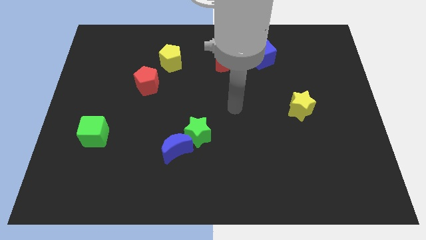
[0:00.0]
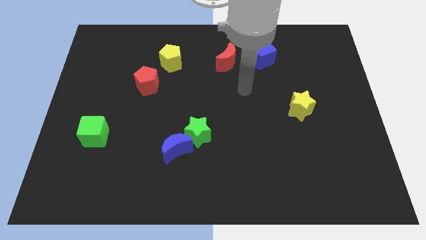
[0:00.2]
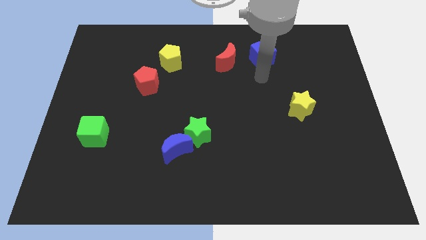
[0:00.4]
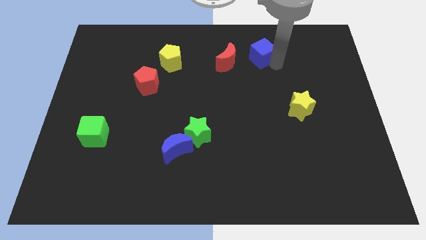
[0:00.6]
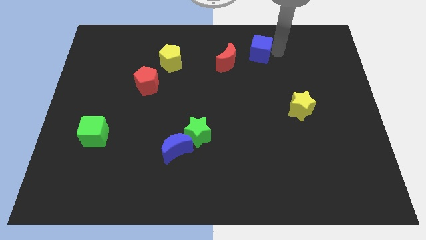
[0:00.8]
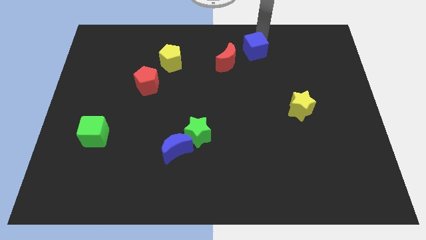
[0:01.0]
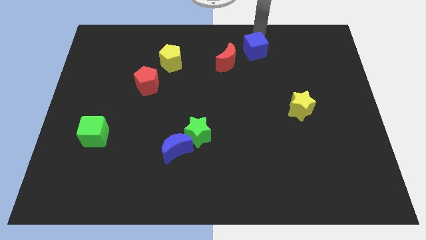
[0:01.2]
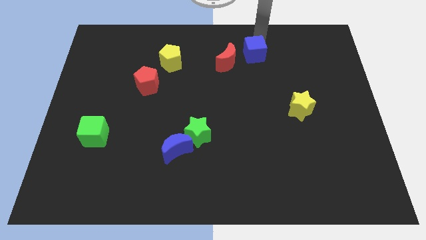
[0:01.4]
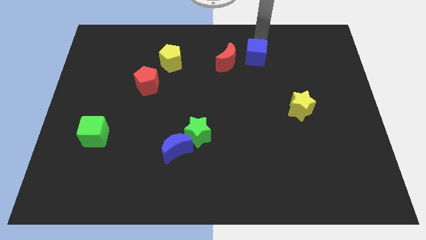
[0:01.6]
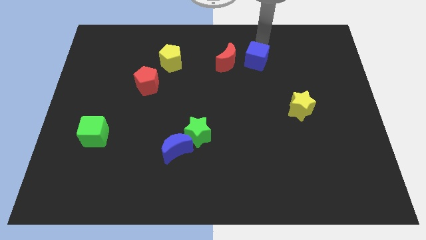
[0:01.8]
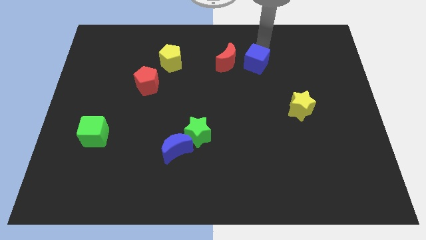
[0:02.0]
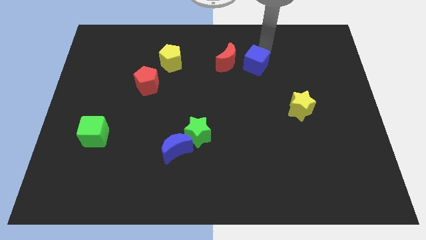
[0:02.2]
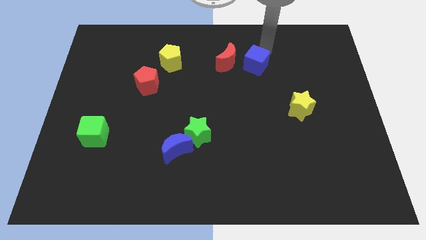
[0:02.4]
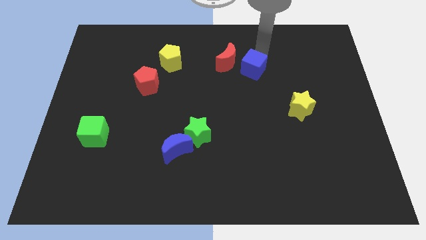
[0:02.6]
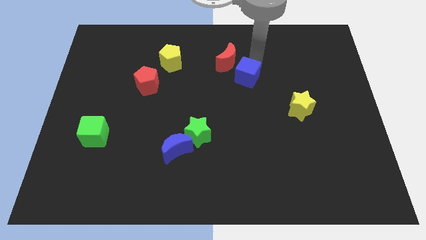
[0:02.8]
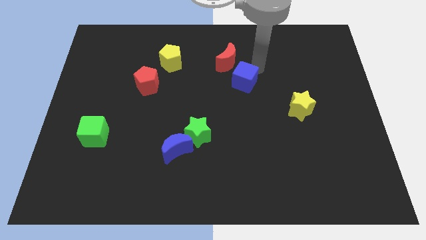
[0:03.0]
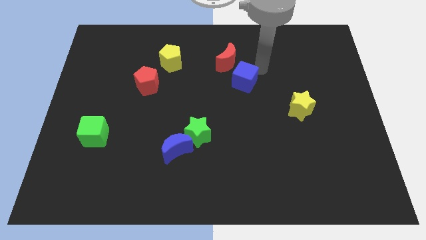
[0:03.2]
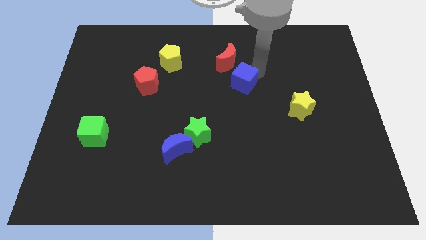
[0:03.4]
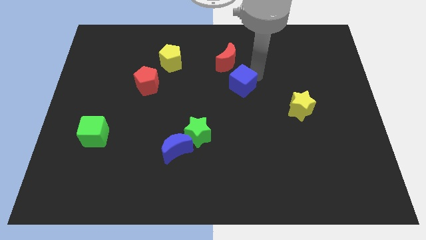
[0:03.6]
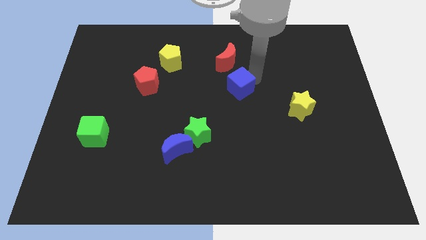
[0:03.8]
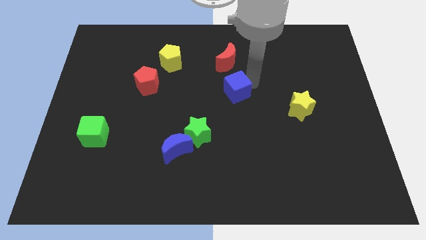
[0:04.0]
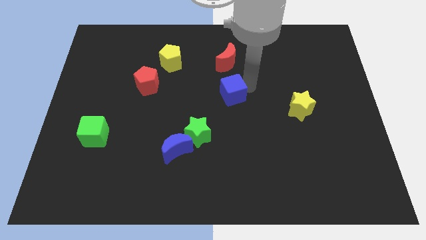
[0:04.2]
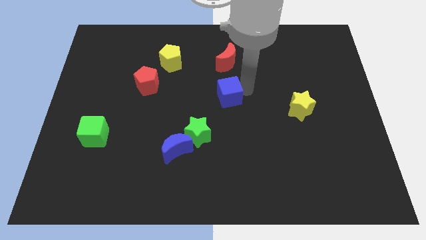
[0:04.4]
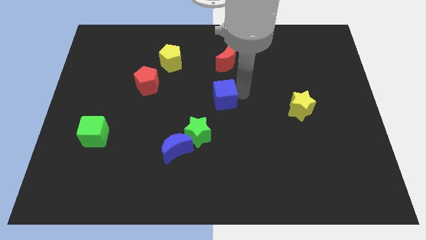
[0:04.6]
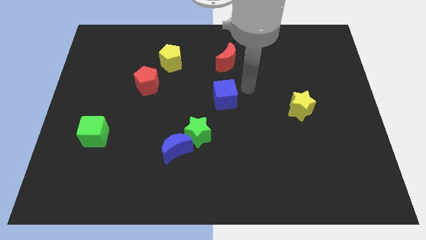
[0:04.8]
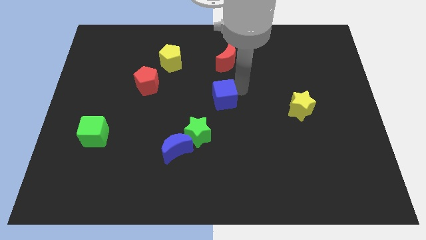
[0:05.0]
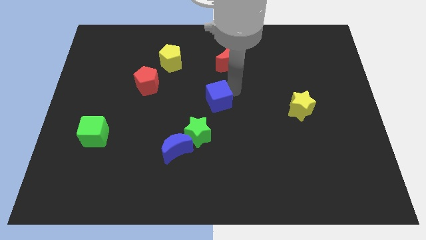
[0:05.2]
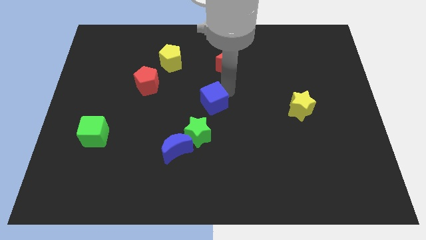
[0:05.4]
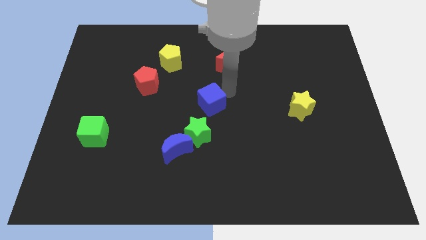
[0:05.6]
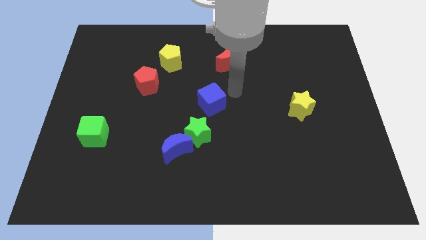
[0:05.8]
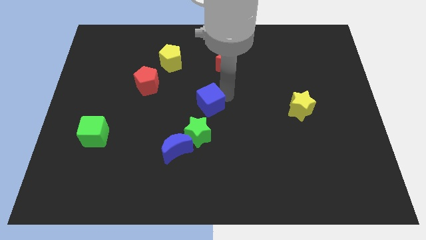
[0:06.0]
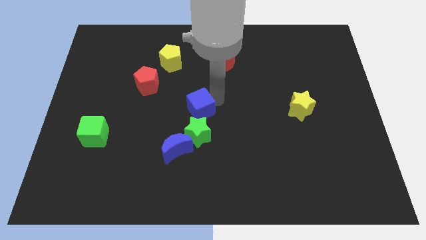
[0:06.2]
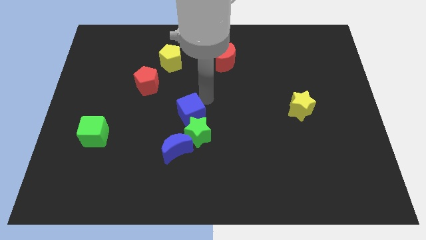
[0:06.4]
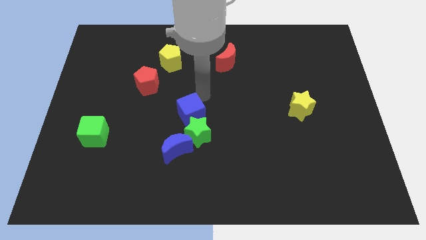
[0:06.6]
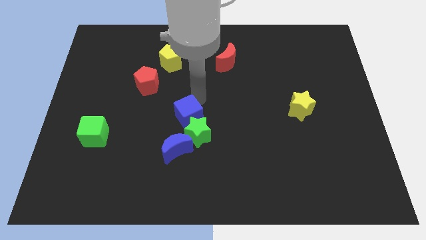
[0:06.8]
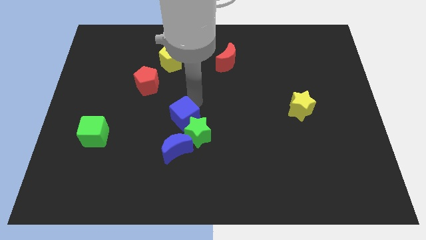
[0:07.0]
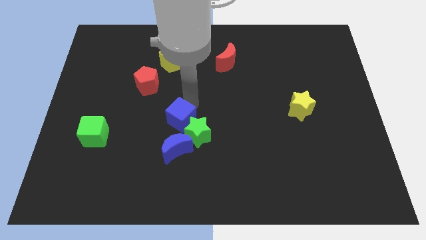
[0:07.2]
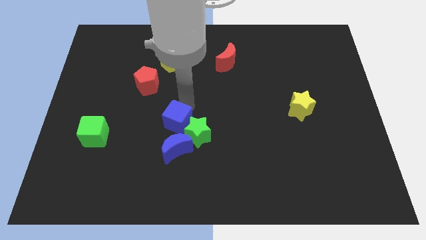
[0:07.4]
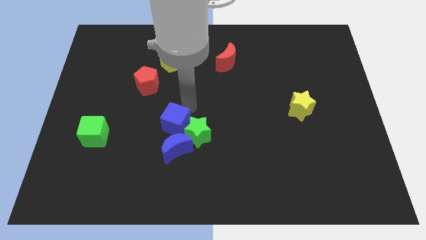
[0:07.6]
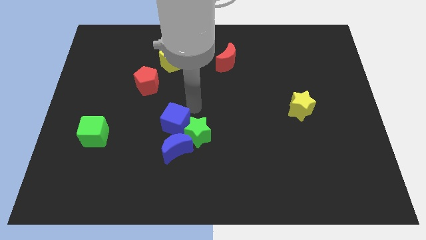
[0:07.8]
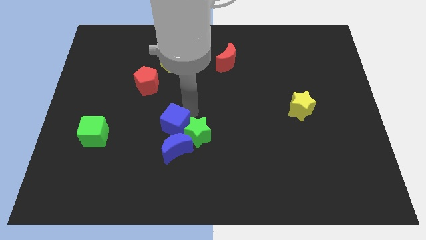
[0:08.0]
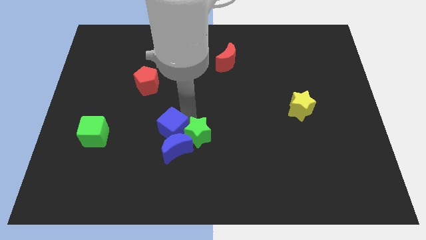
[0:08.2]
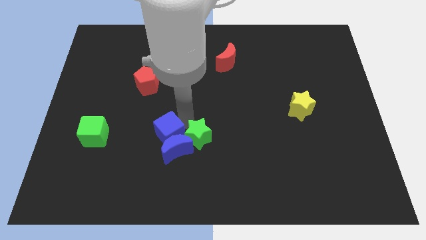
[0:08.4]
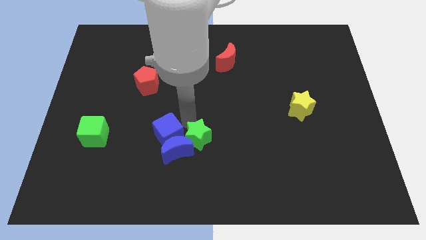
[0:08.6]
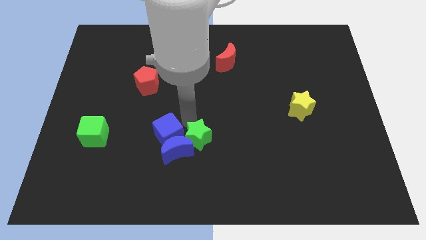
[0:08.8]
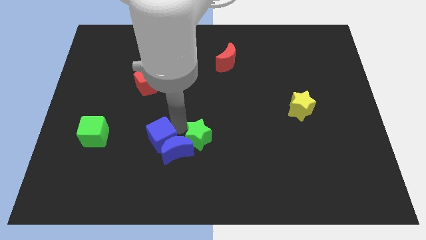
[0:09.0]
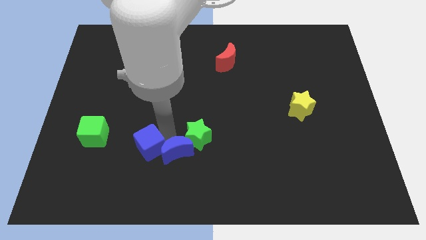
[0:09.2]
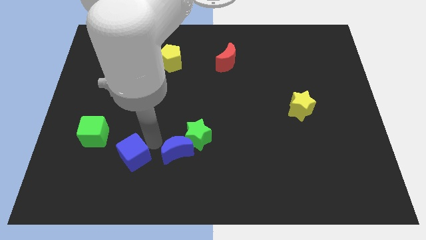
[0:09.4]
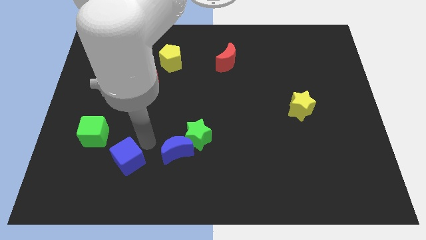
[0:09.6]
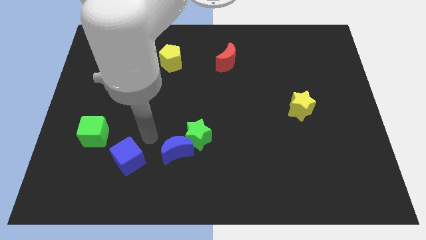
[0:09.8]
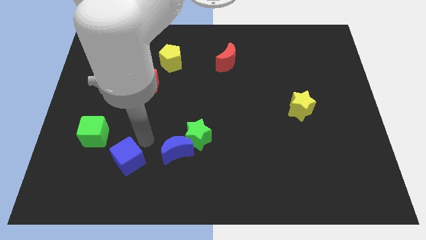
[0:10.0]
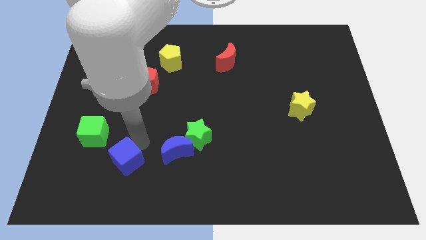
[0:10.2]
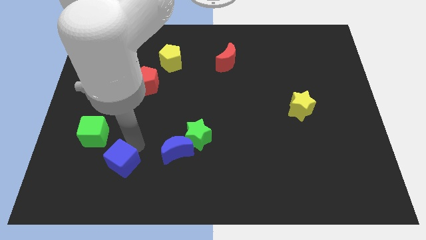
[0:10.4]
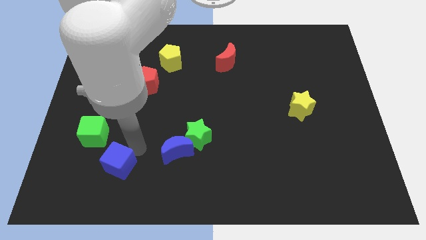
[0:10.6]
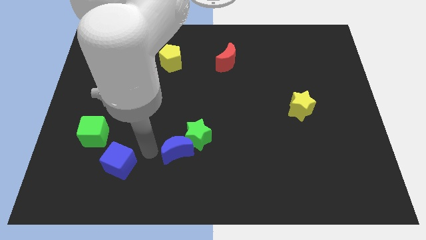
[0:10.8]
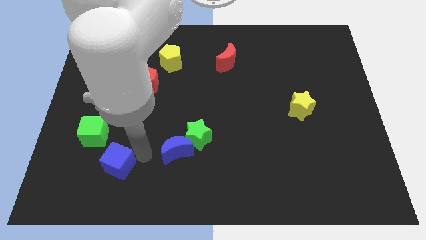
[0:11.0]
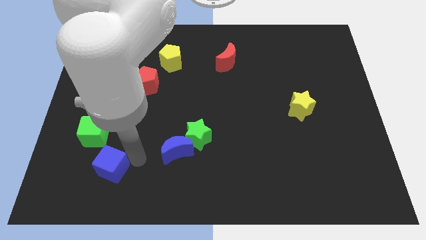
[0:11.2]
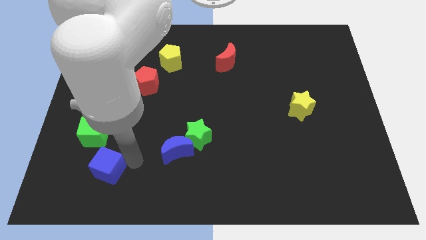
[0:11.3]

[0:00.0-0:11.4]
put the blue cube below the green cube

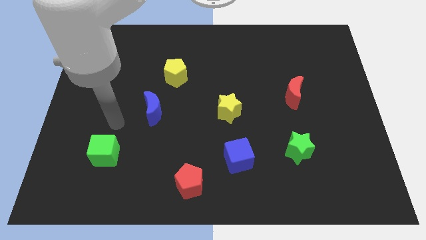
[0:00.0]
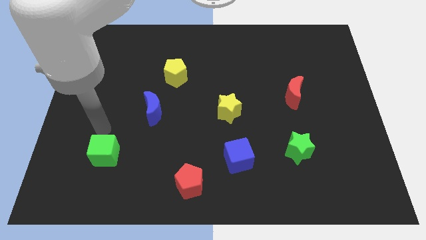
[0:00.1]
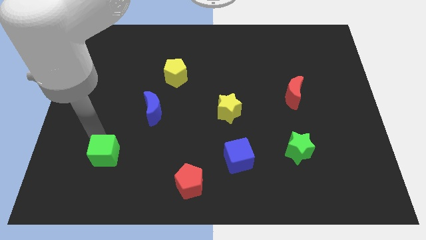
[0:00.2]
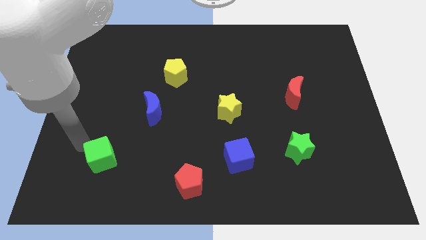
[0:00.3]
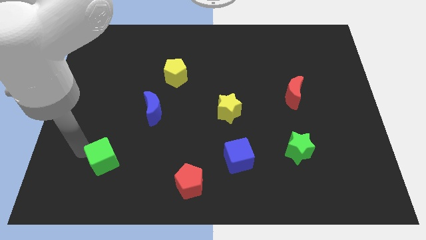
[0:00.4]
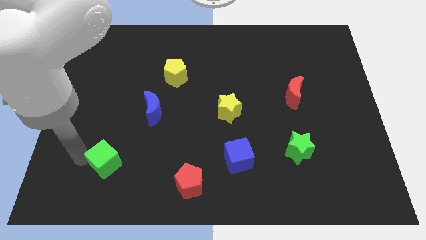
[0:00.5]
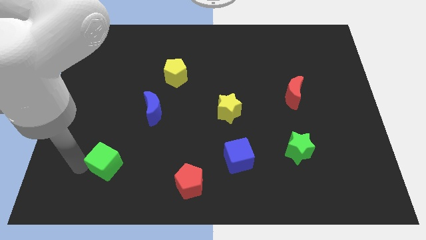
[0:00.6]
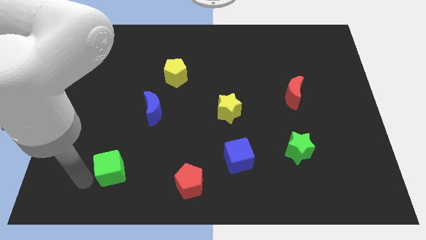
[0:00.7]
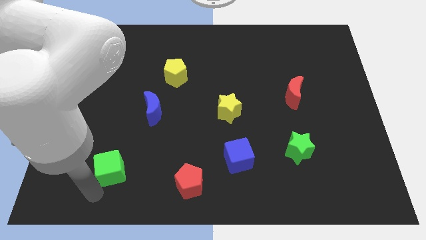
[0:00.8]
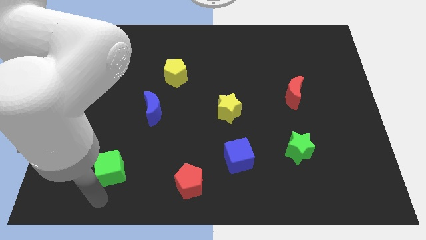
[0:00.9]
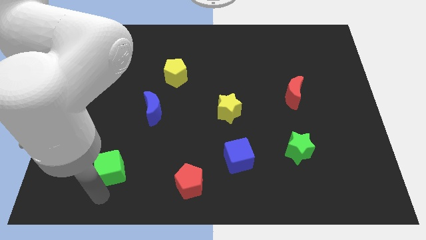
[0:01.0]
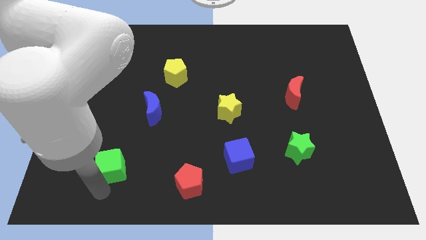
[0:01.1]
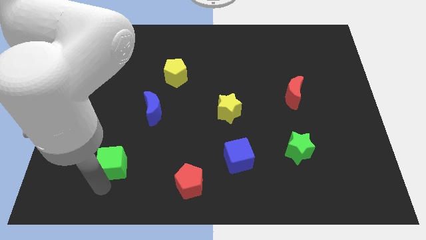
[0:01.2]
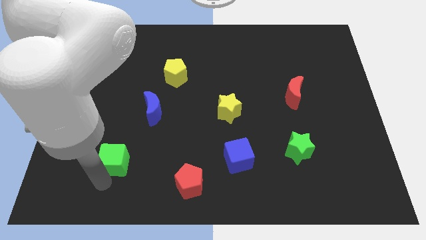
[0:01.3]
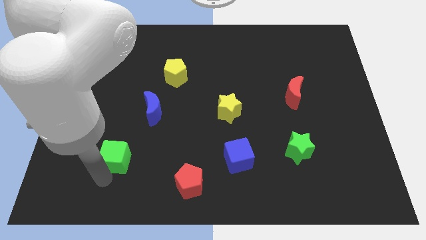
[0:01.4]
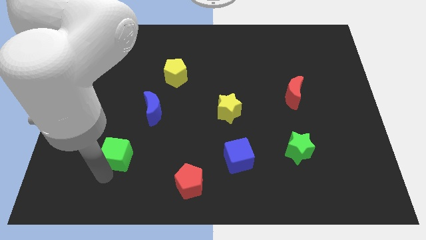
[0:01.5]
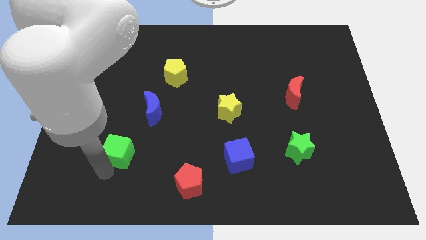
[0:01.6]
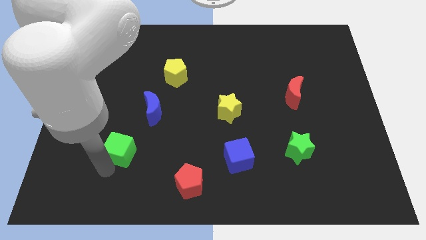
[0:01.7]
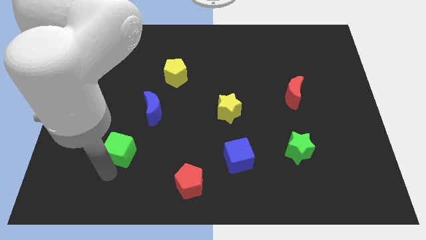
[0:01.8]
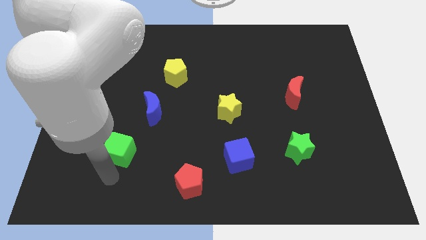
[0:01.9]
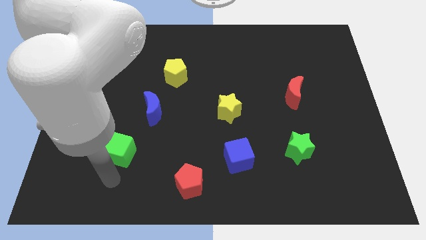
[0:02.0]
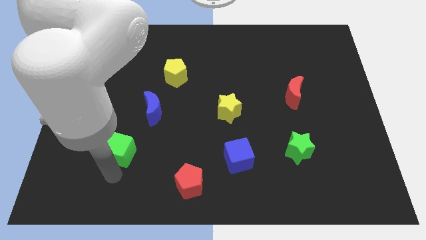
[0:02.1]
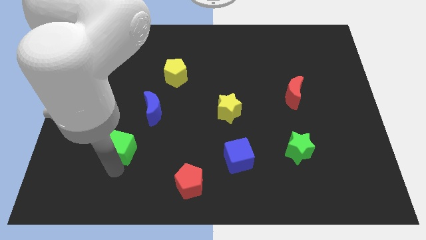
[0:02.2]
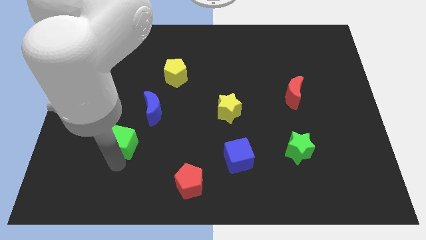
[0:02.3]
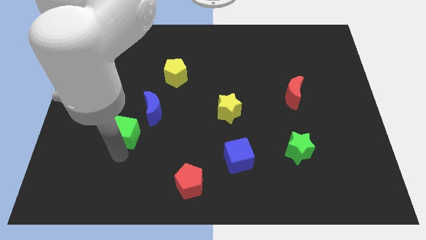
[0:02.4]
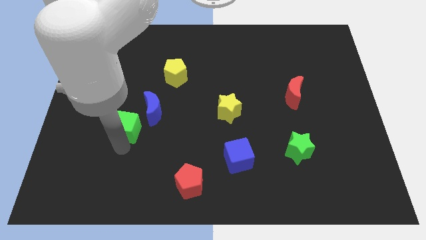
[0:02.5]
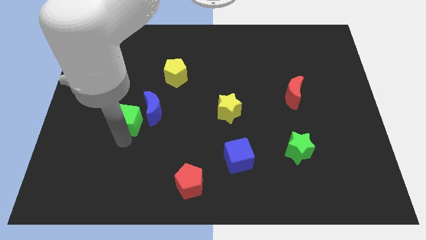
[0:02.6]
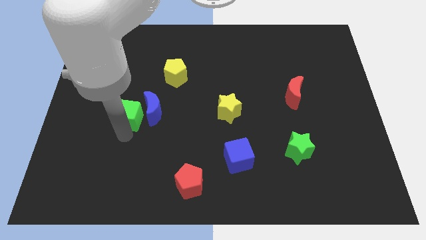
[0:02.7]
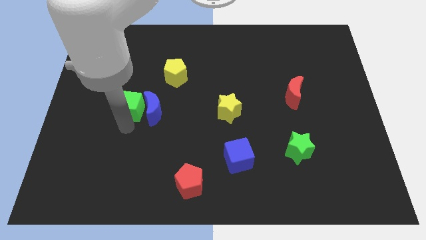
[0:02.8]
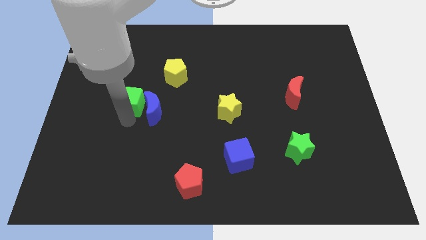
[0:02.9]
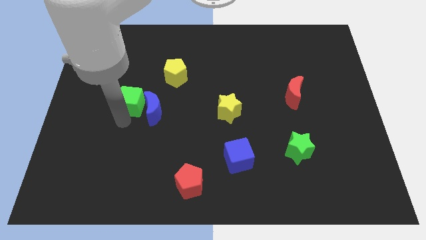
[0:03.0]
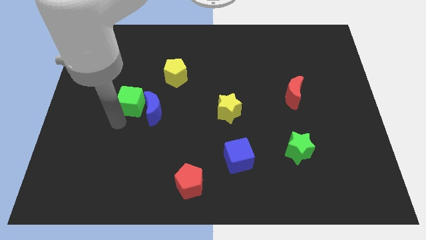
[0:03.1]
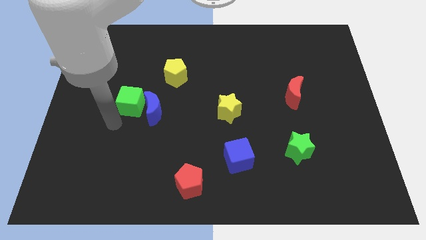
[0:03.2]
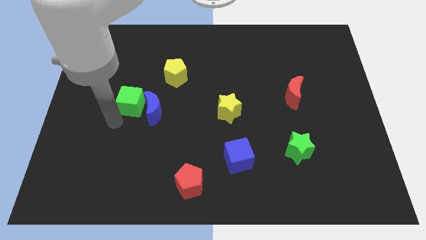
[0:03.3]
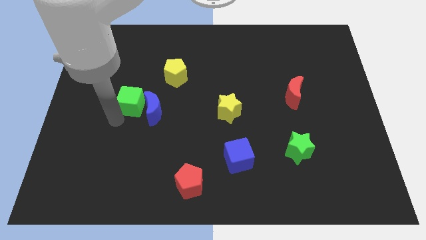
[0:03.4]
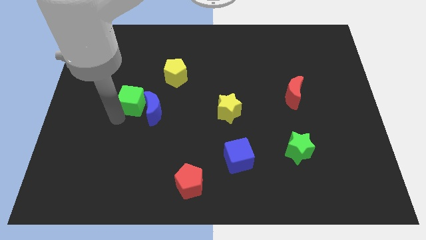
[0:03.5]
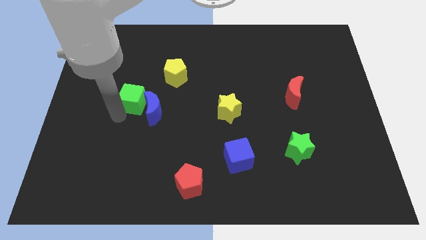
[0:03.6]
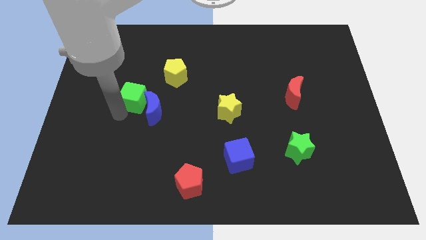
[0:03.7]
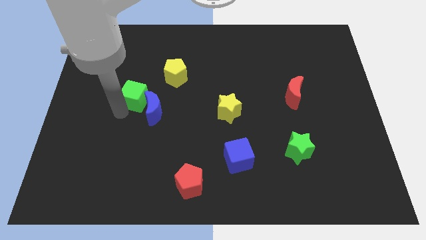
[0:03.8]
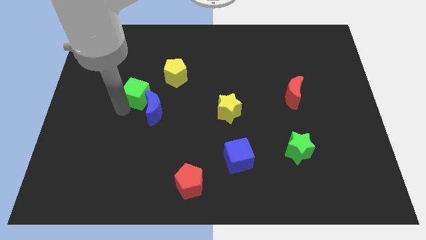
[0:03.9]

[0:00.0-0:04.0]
put the green cube to the top of the blue moon
